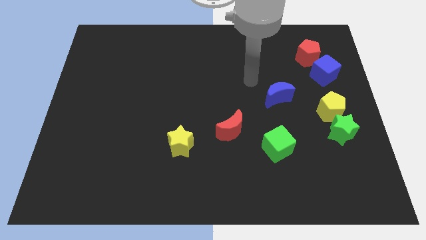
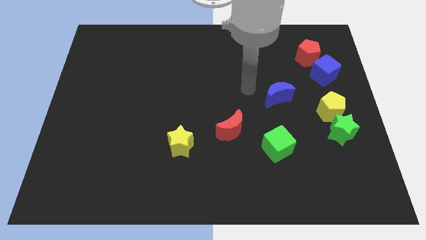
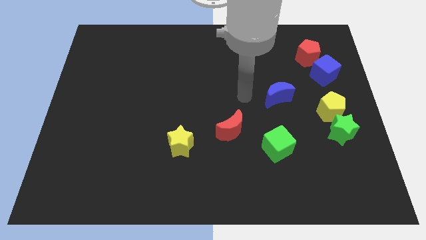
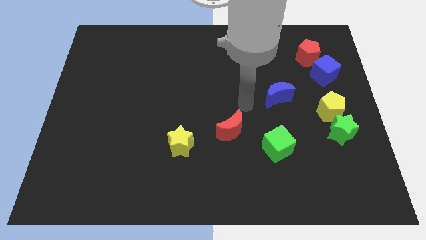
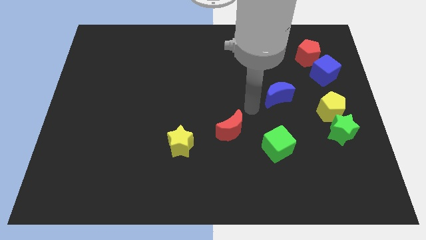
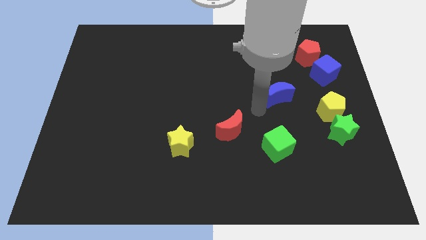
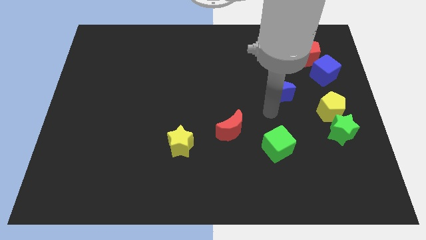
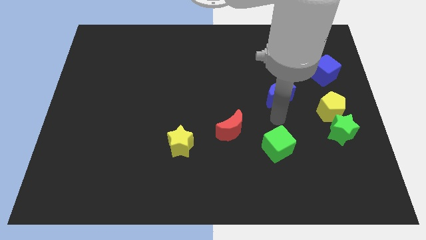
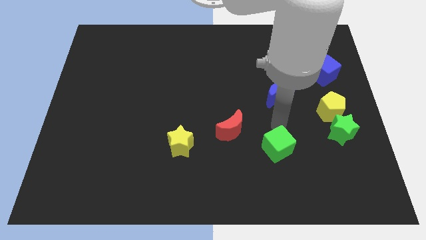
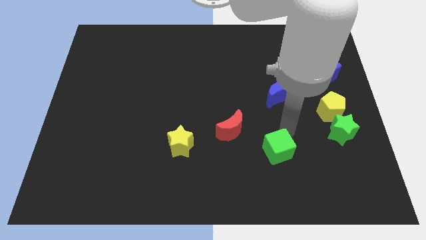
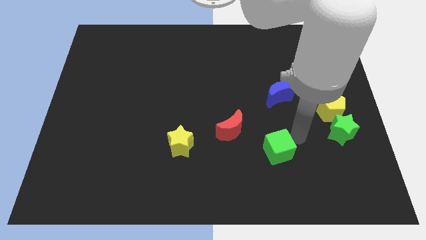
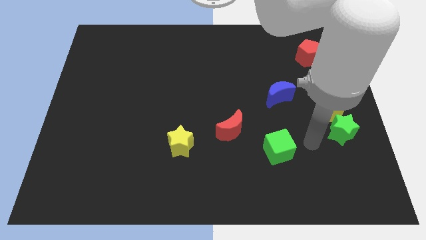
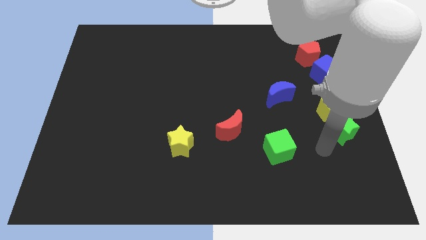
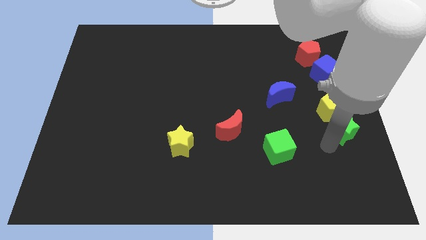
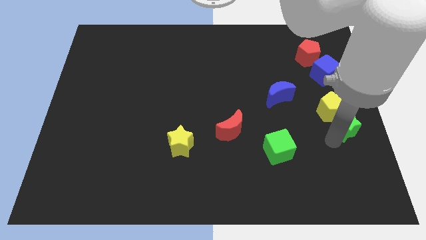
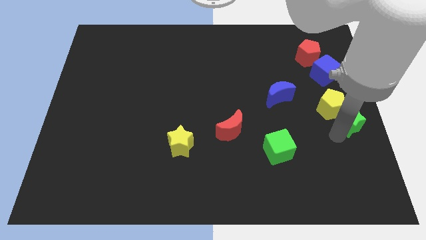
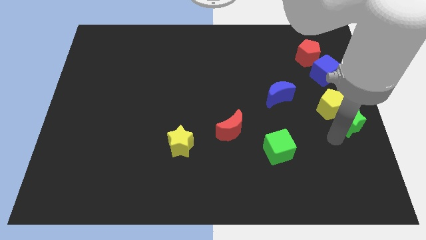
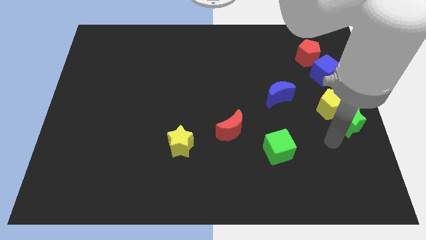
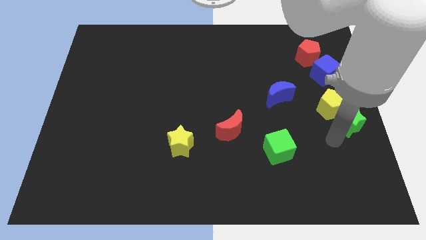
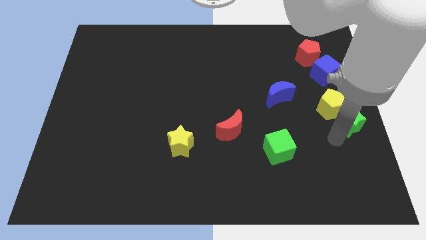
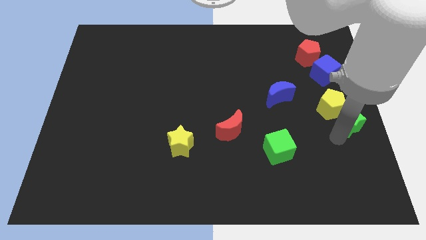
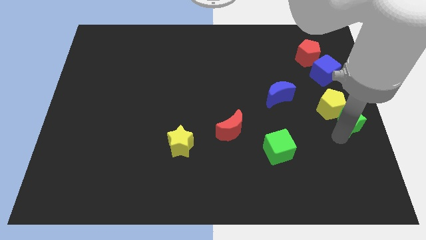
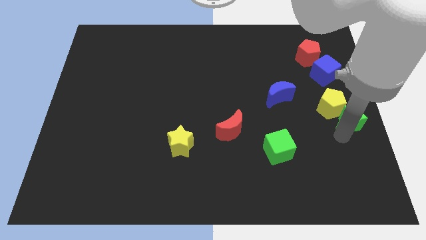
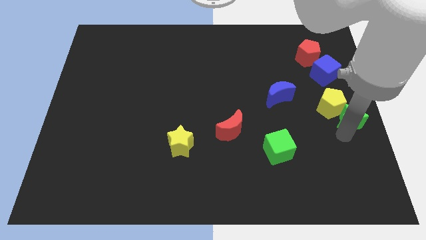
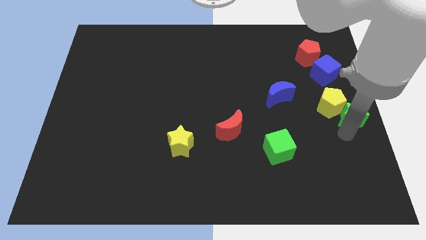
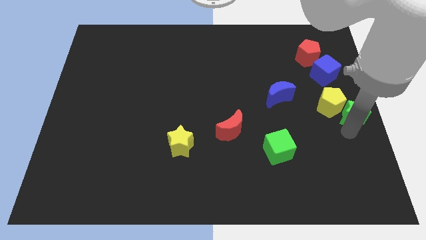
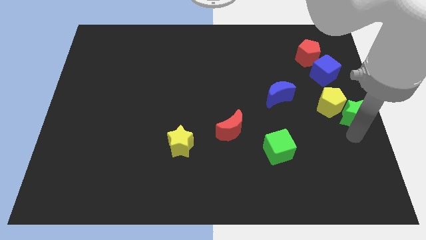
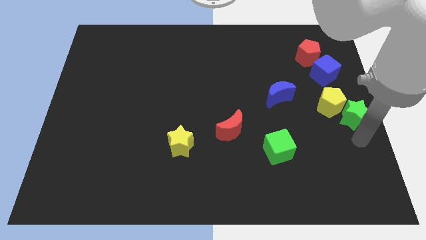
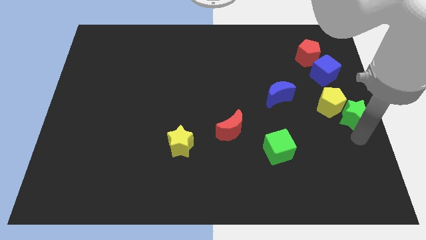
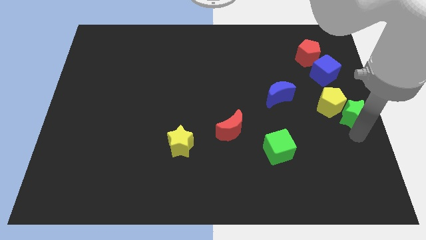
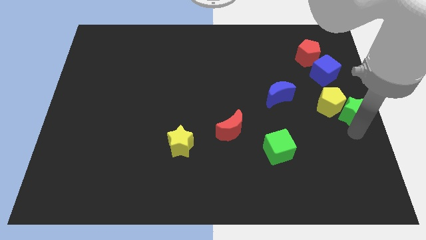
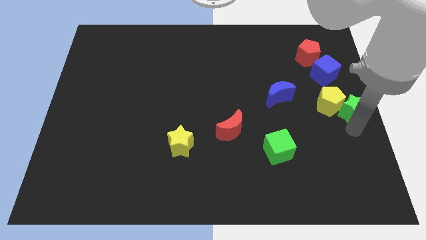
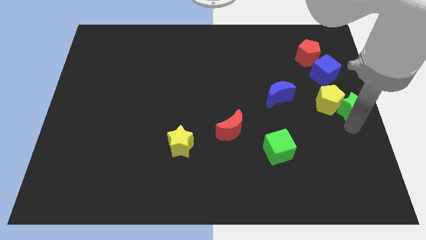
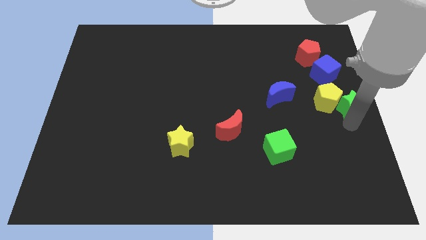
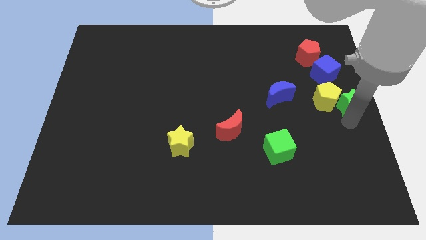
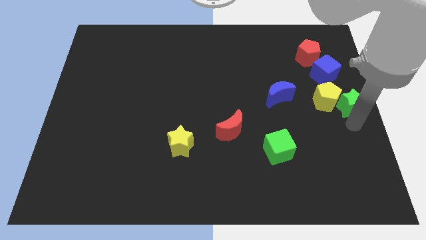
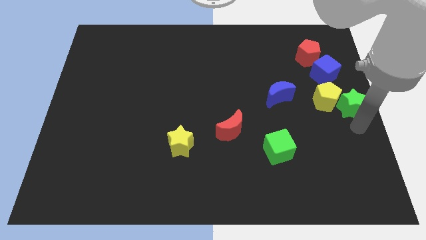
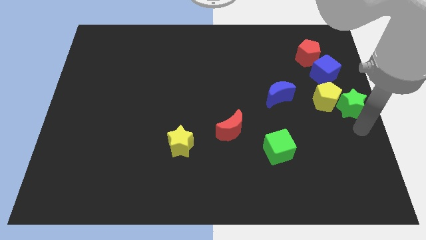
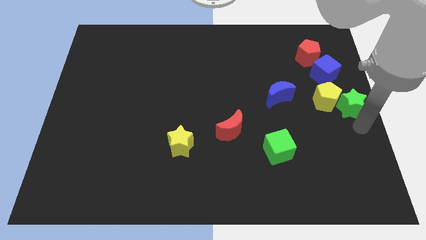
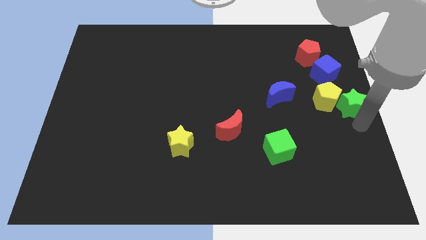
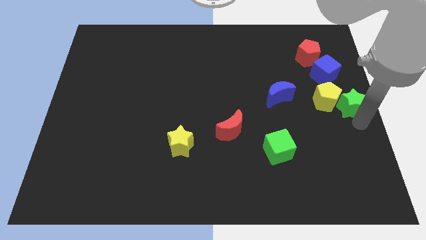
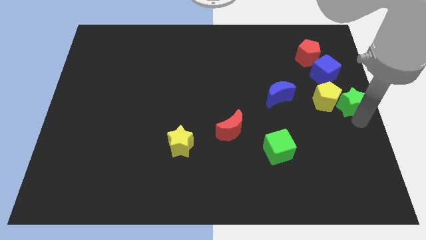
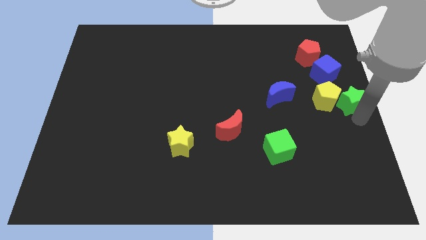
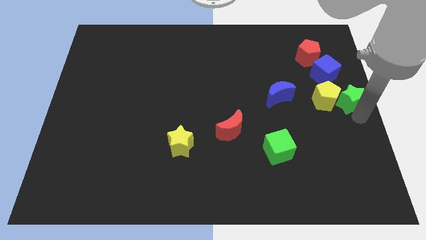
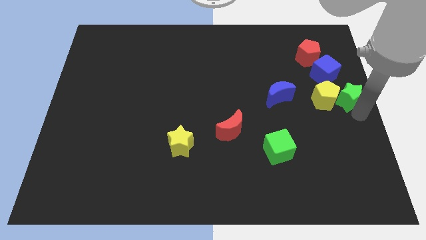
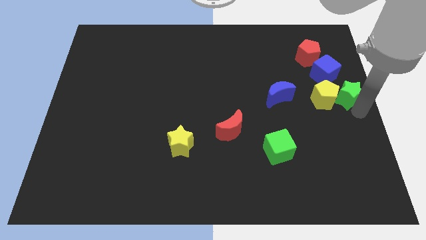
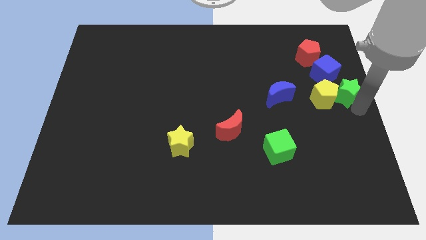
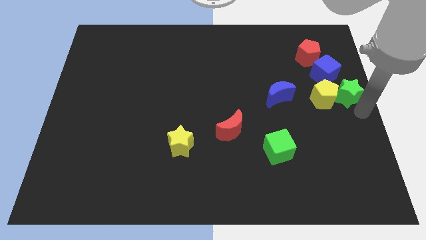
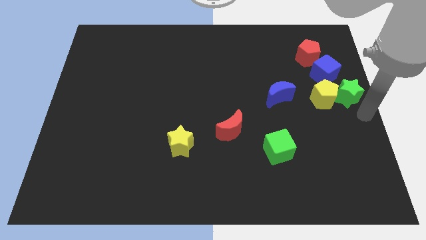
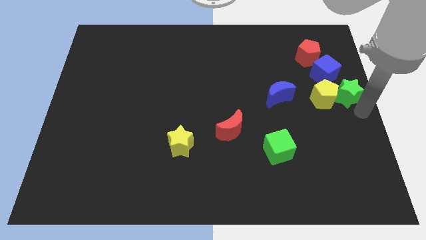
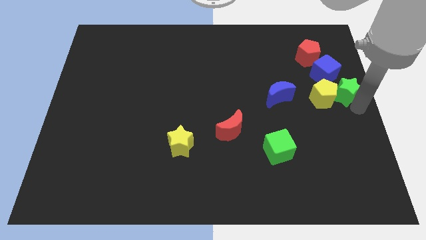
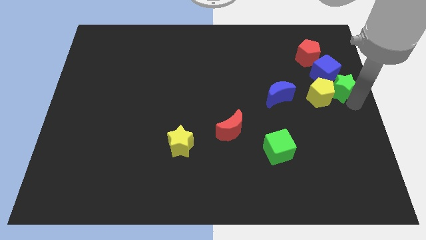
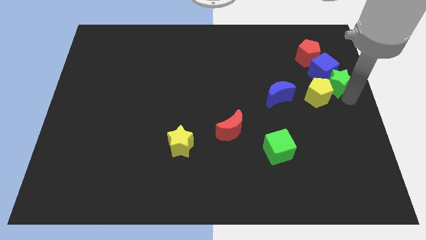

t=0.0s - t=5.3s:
move the green star to the blue cube

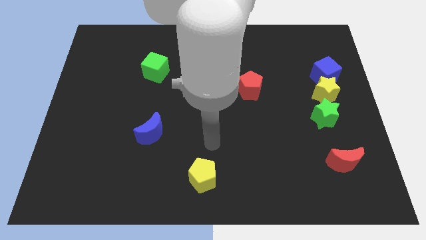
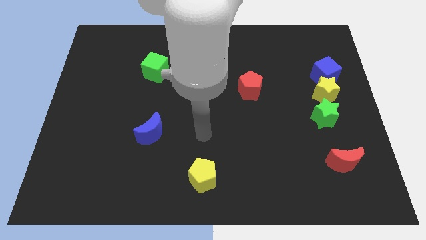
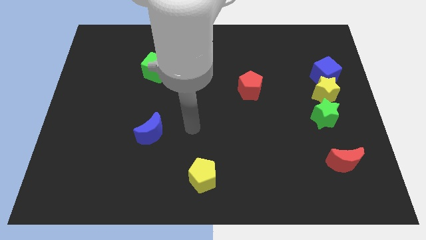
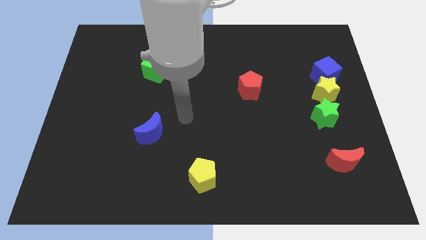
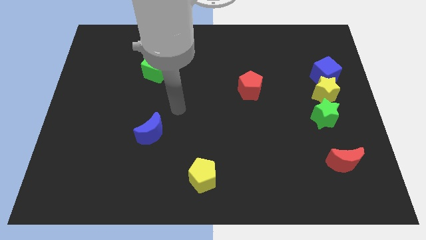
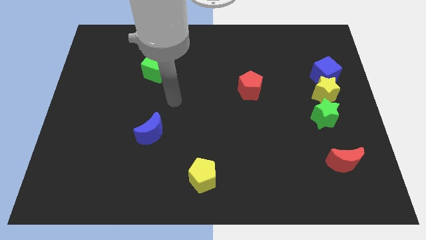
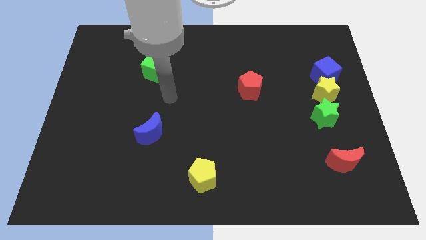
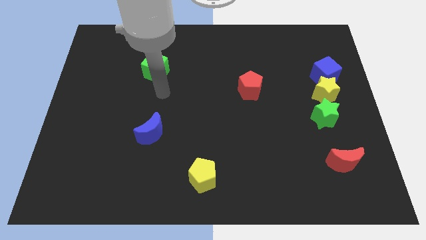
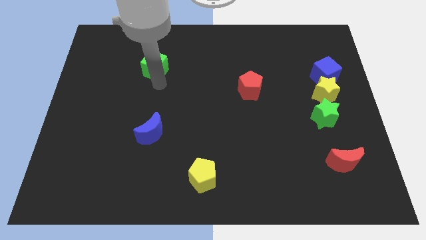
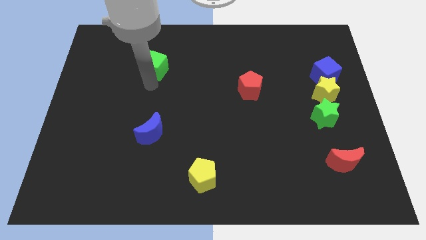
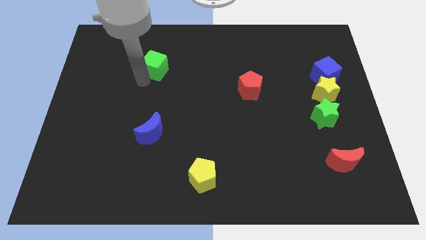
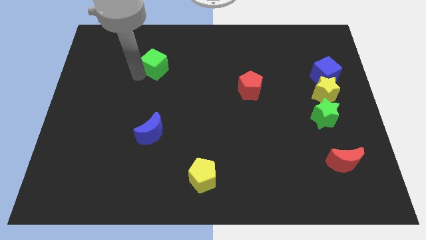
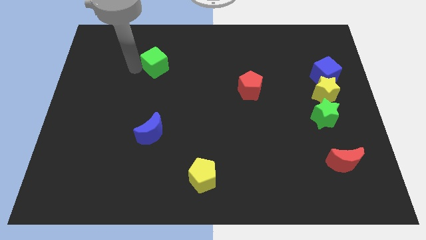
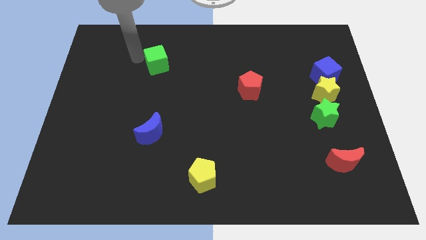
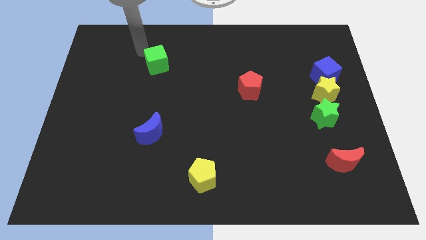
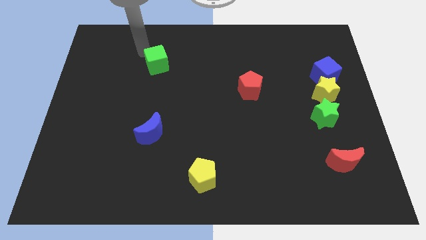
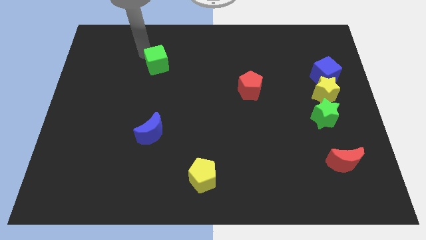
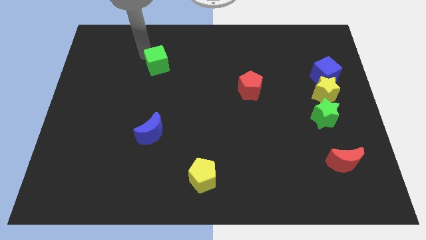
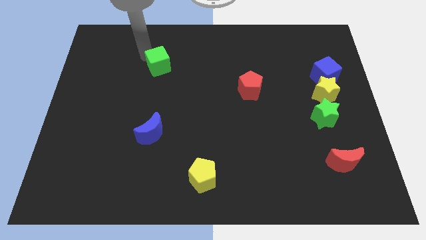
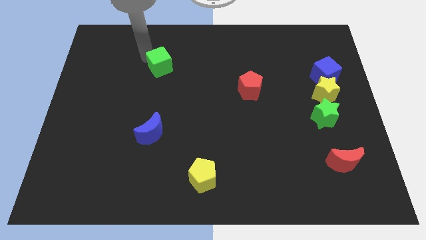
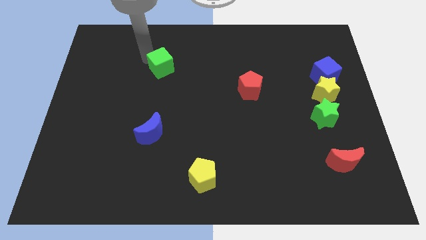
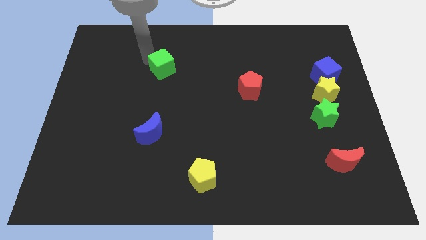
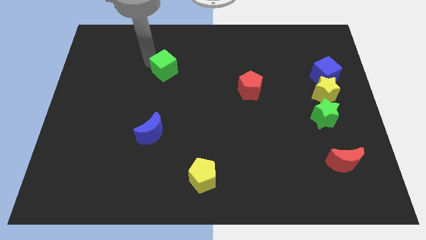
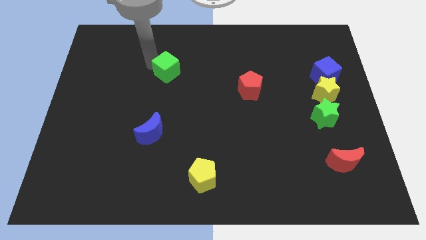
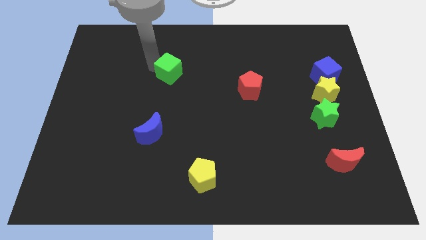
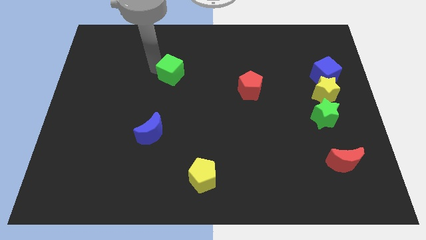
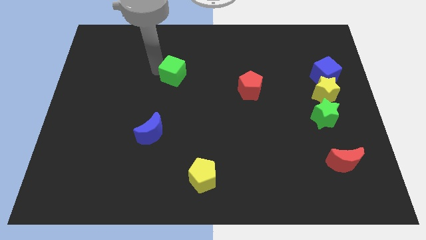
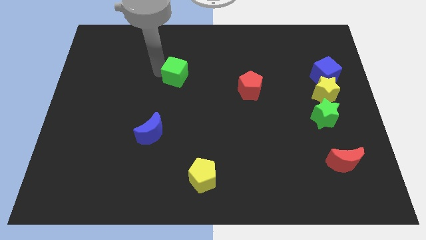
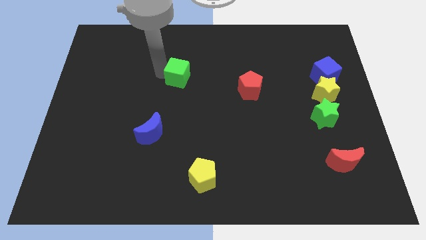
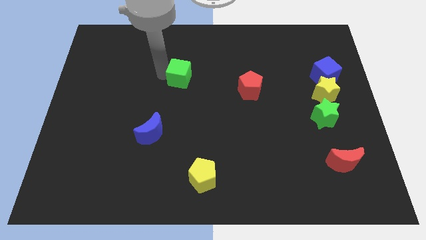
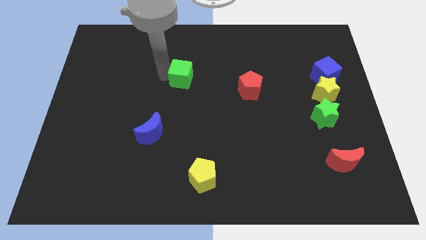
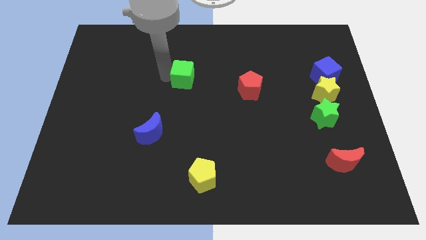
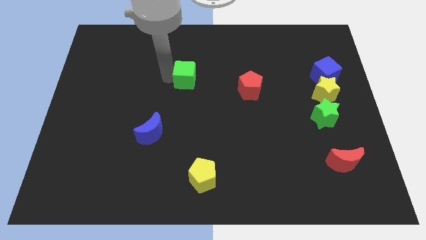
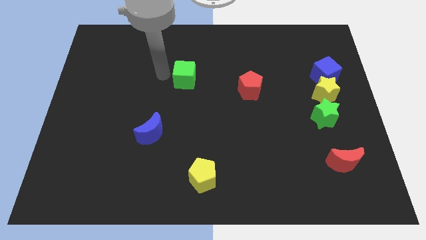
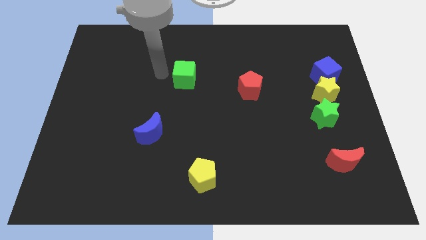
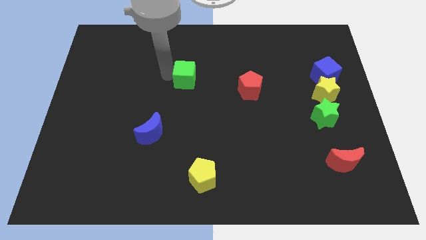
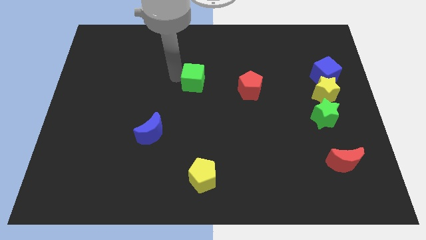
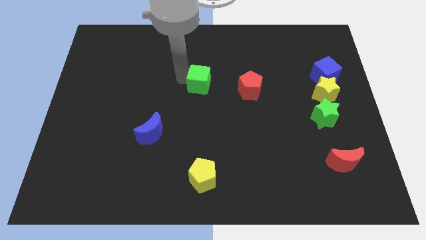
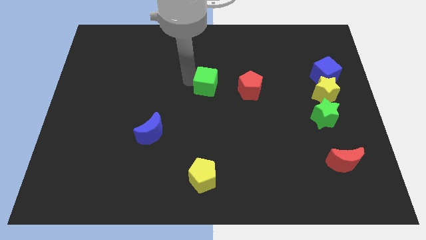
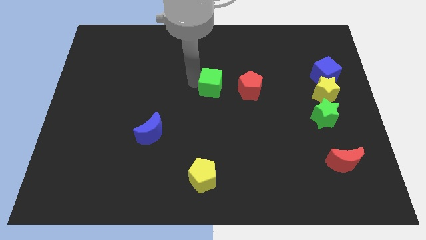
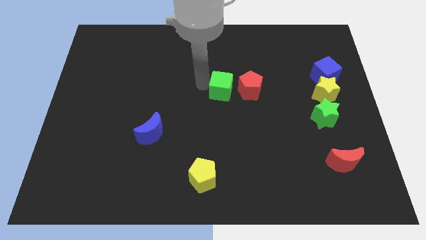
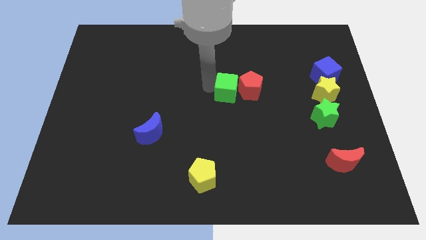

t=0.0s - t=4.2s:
move the green cube to the red pentagon
